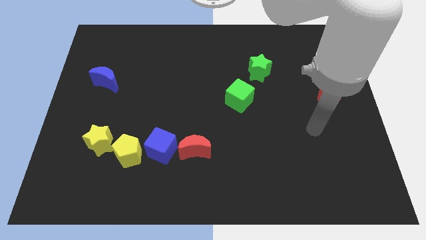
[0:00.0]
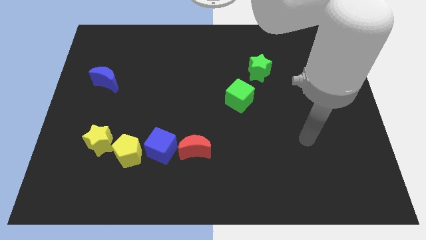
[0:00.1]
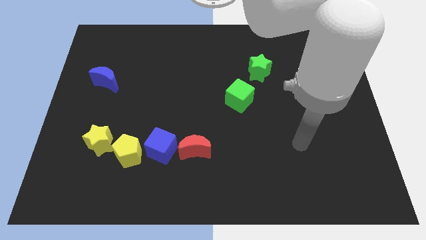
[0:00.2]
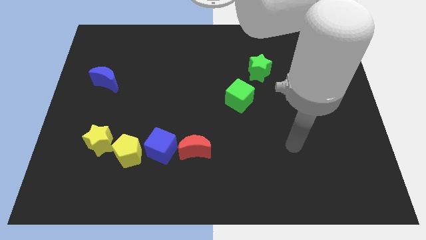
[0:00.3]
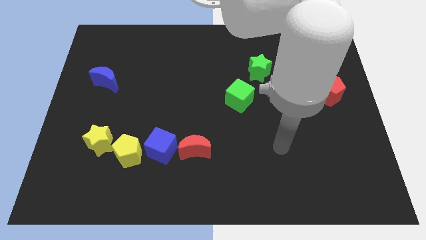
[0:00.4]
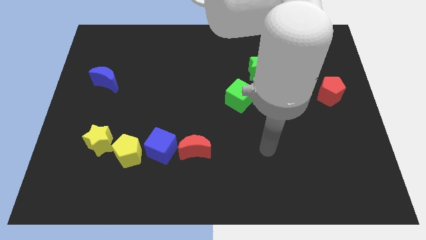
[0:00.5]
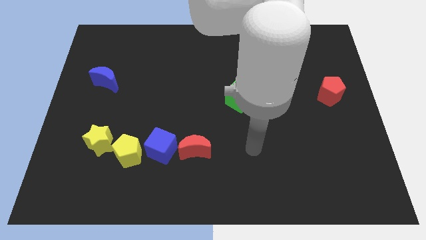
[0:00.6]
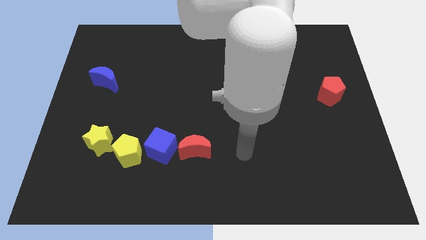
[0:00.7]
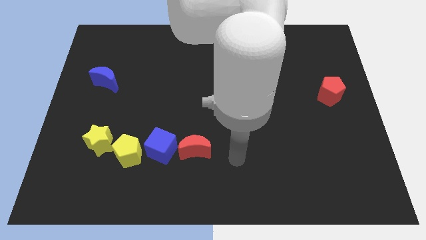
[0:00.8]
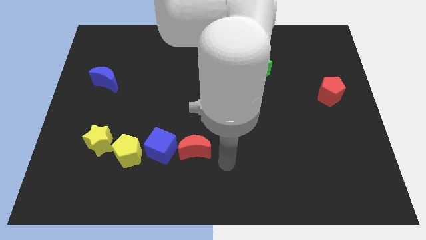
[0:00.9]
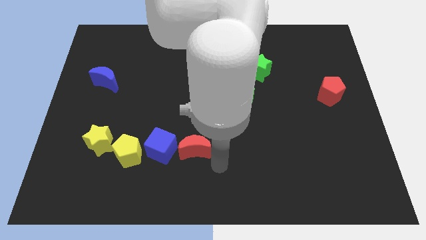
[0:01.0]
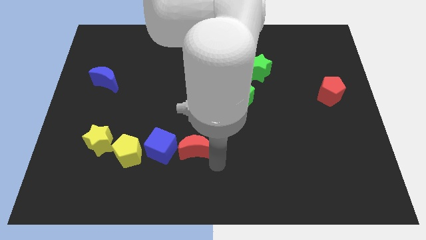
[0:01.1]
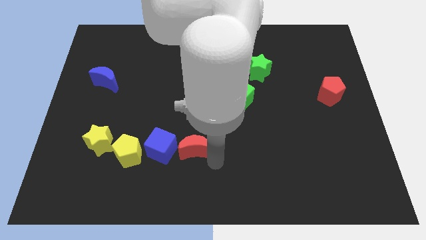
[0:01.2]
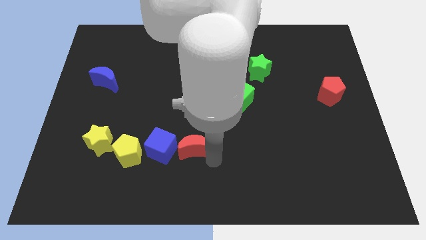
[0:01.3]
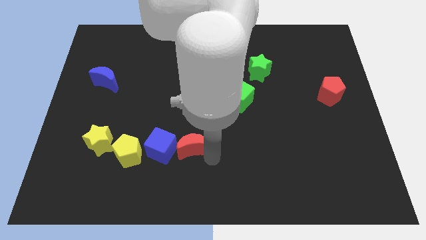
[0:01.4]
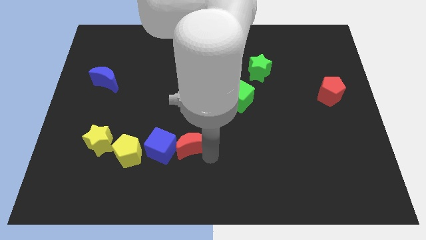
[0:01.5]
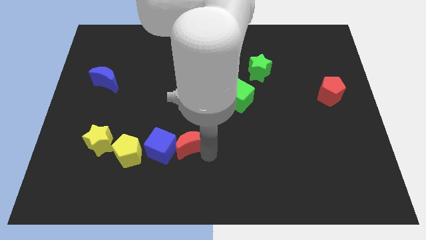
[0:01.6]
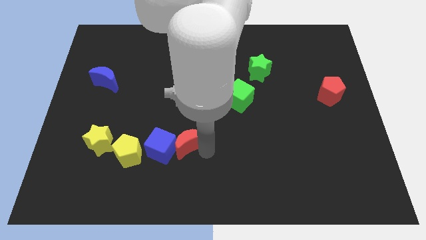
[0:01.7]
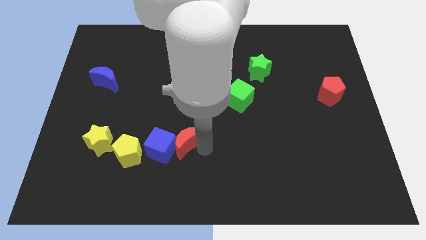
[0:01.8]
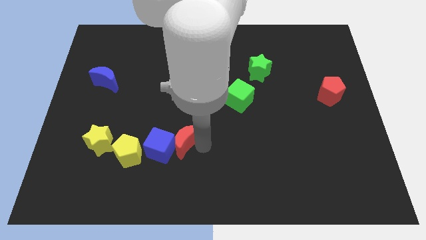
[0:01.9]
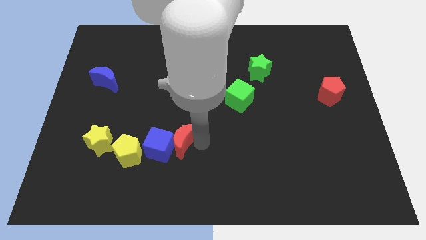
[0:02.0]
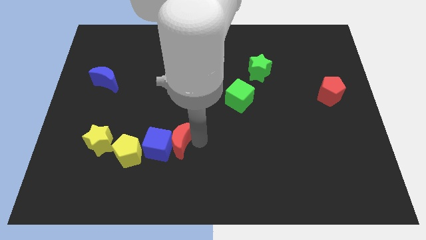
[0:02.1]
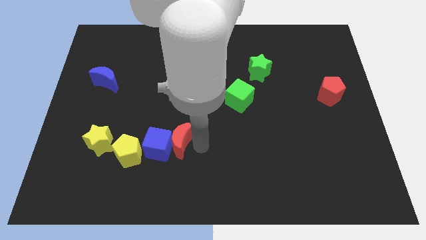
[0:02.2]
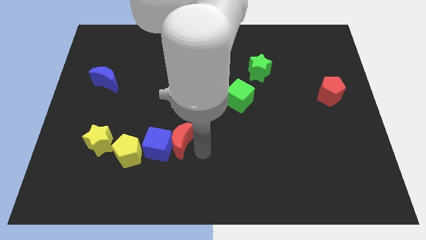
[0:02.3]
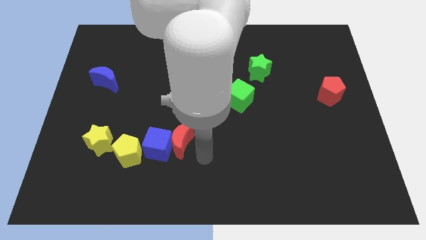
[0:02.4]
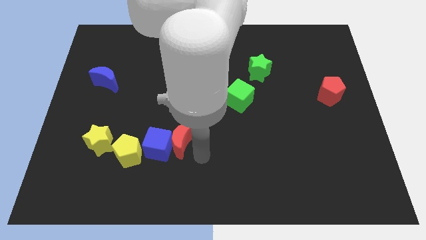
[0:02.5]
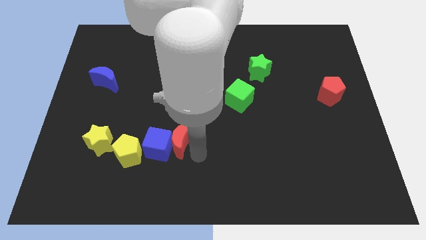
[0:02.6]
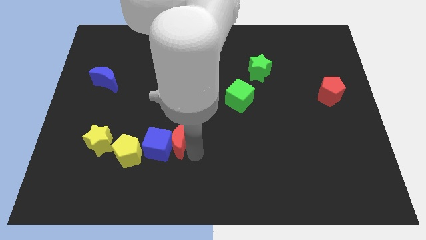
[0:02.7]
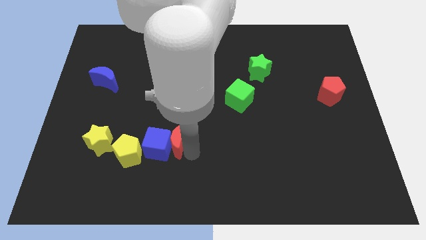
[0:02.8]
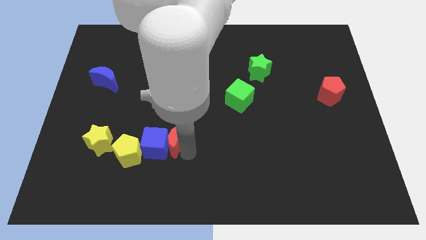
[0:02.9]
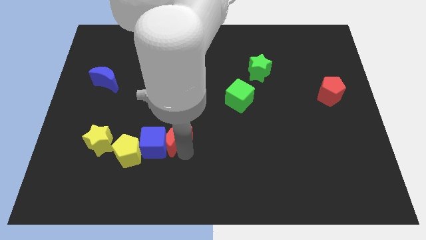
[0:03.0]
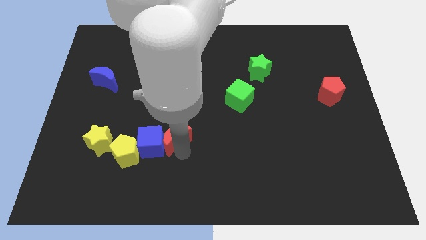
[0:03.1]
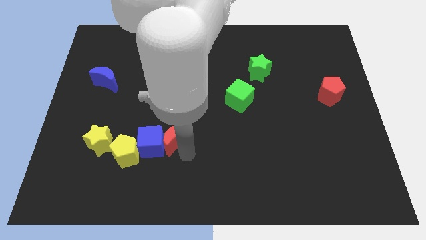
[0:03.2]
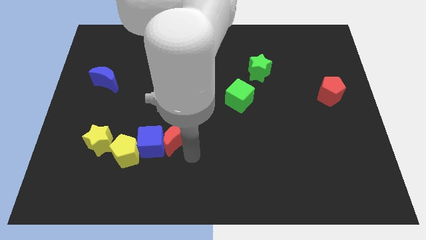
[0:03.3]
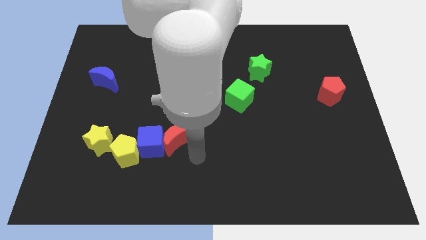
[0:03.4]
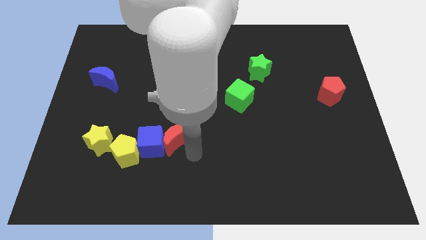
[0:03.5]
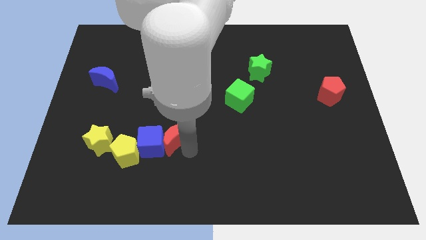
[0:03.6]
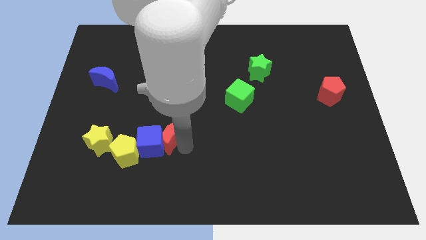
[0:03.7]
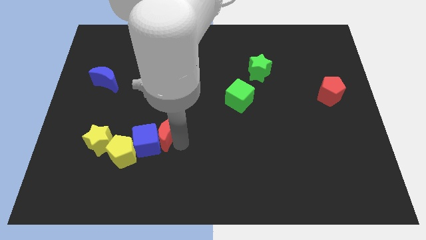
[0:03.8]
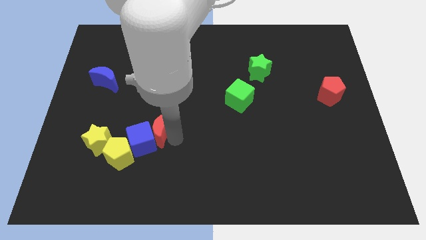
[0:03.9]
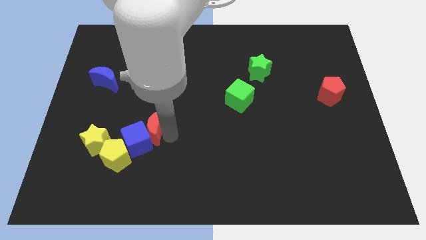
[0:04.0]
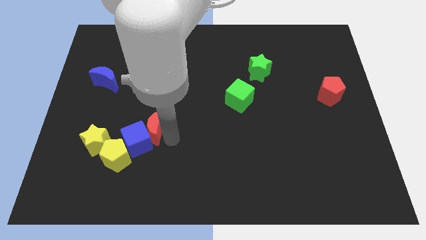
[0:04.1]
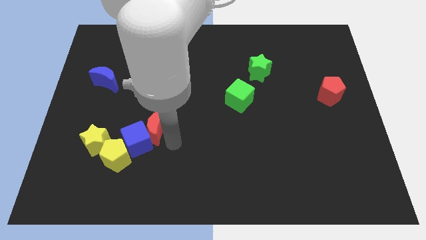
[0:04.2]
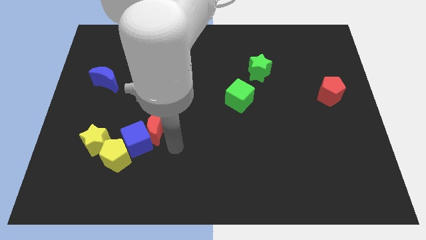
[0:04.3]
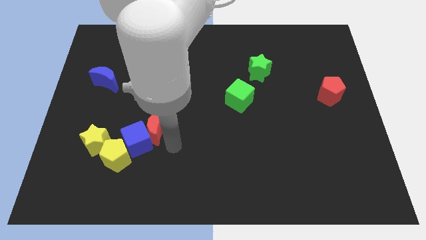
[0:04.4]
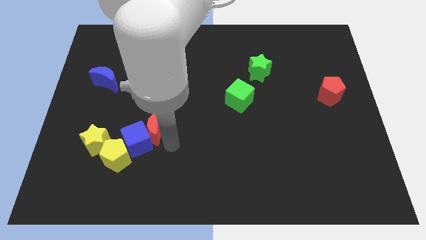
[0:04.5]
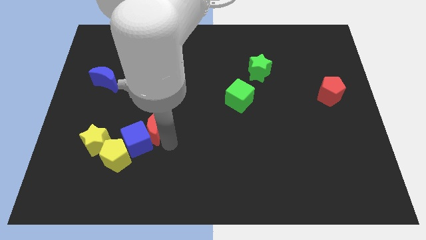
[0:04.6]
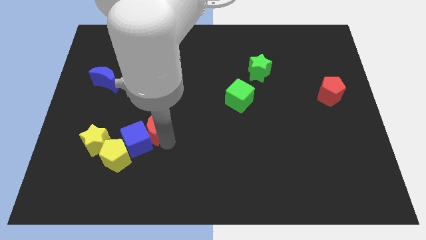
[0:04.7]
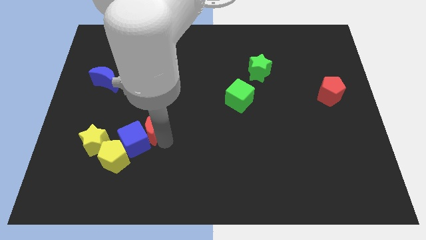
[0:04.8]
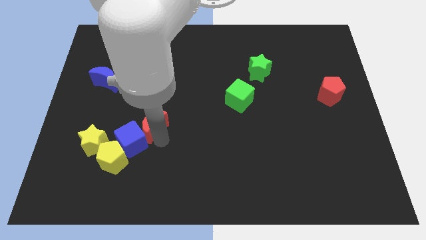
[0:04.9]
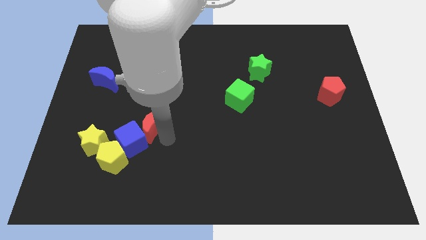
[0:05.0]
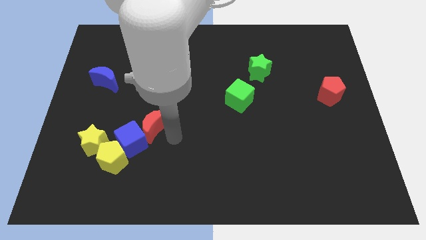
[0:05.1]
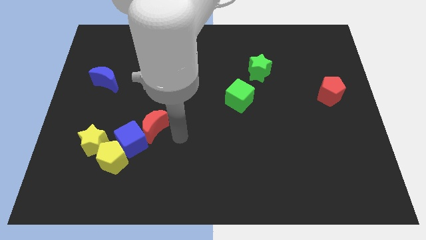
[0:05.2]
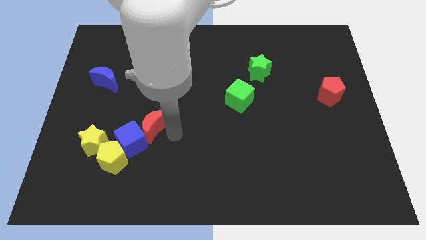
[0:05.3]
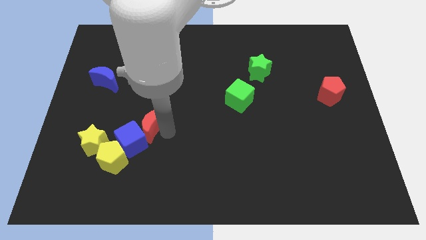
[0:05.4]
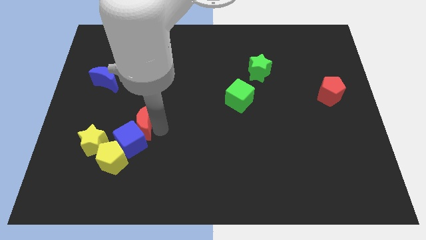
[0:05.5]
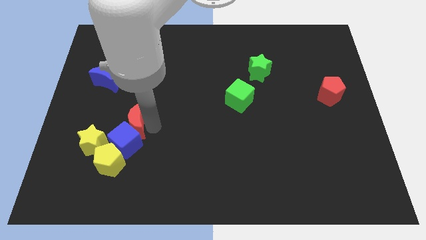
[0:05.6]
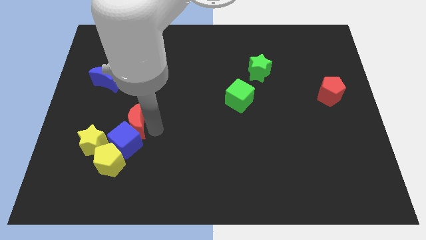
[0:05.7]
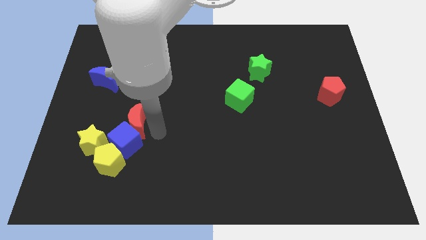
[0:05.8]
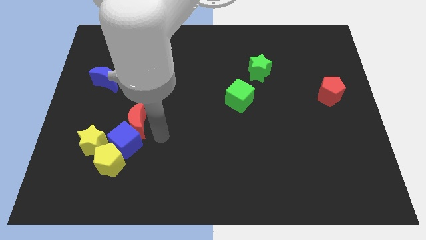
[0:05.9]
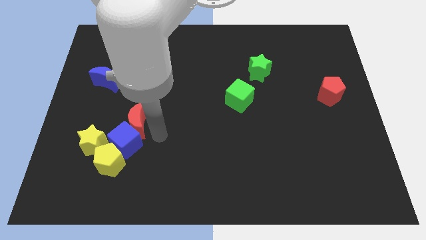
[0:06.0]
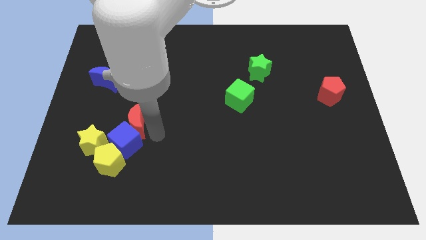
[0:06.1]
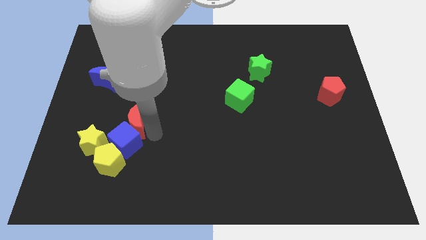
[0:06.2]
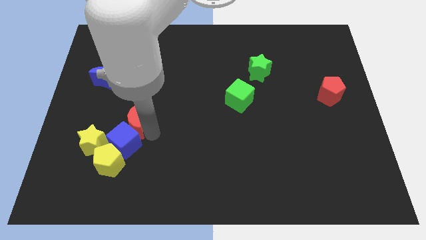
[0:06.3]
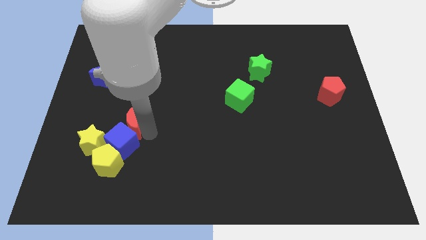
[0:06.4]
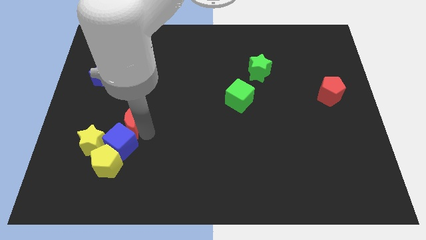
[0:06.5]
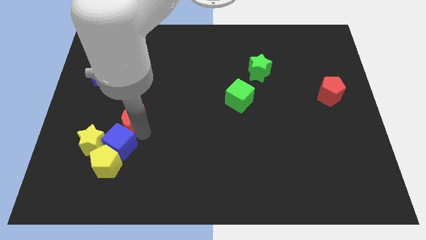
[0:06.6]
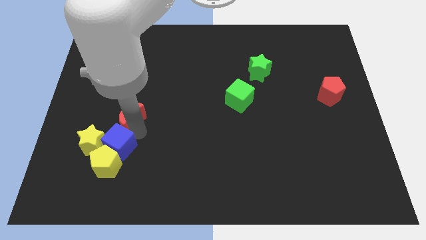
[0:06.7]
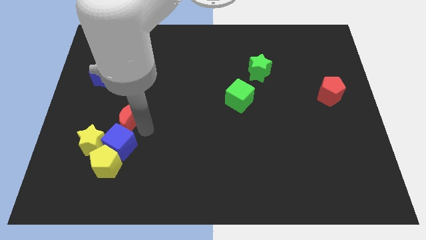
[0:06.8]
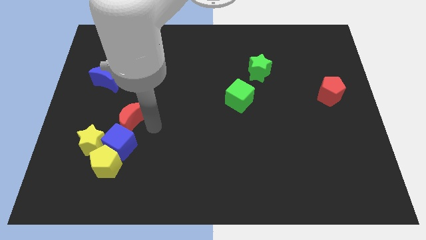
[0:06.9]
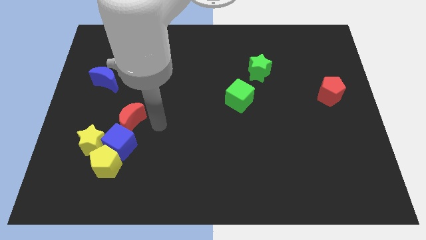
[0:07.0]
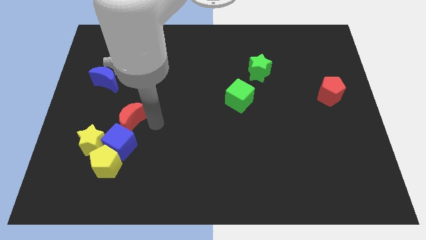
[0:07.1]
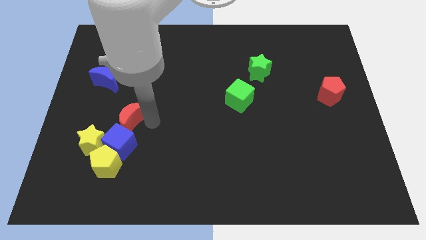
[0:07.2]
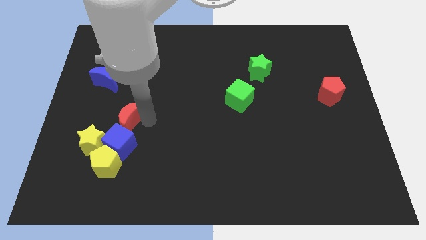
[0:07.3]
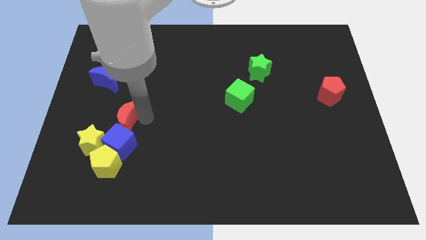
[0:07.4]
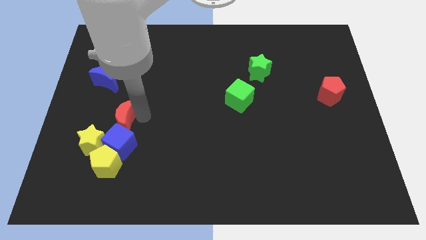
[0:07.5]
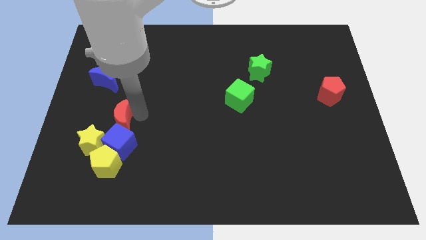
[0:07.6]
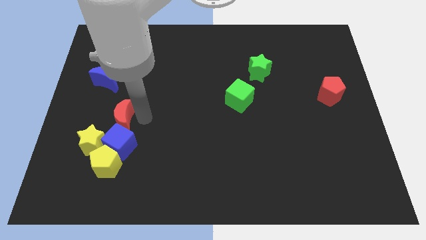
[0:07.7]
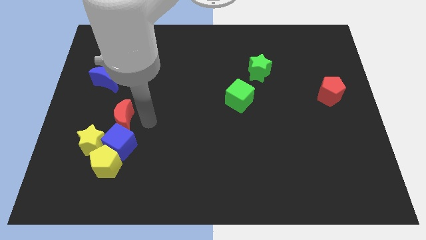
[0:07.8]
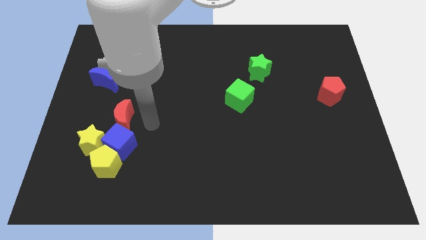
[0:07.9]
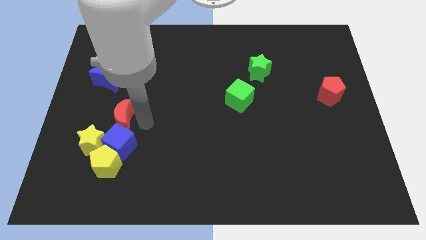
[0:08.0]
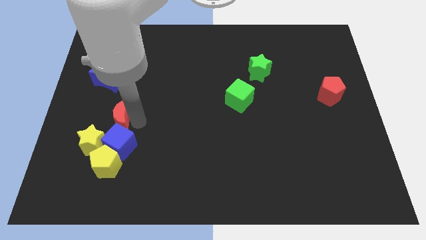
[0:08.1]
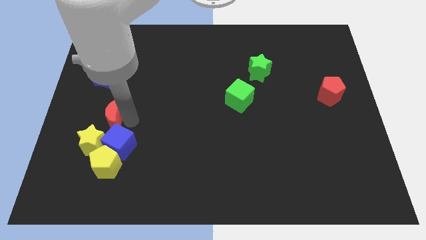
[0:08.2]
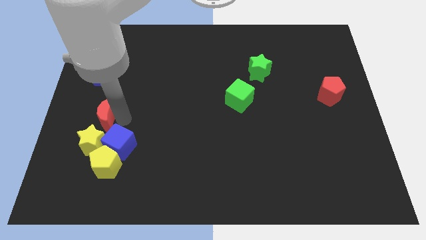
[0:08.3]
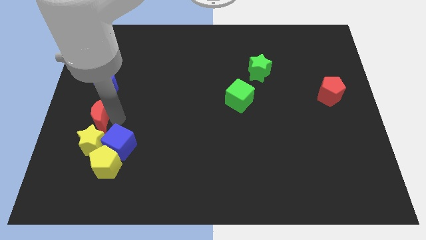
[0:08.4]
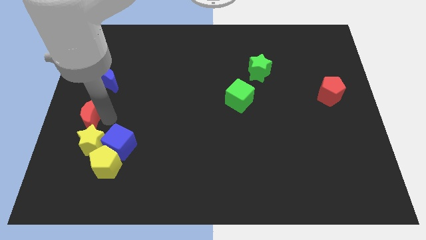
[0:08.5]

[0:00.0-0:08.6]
move the red moon to the left side of the board
